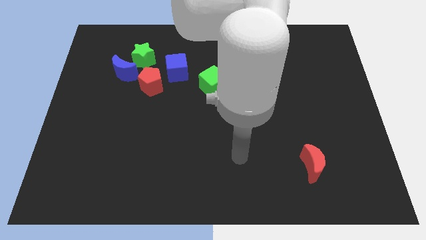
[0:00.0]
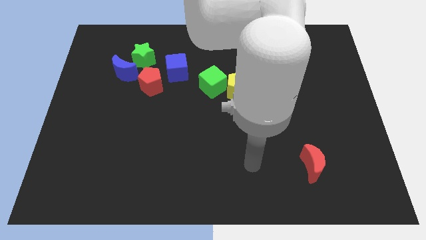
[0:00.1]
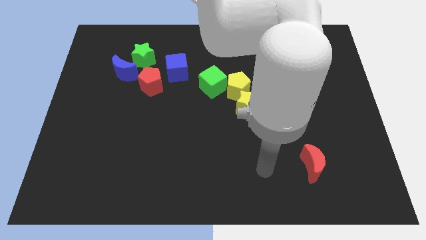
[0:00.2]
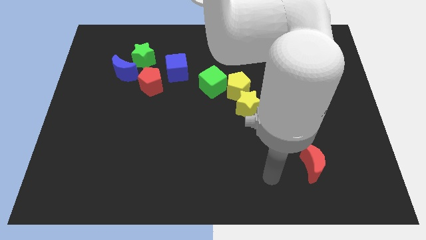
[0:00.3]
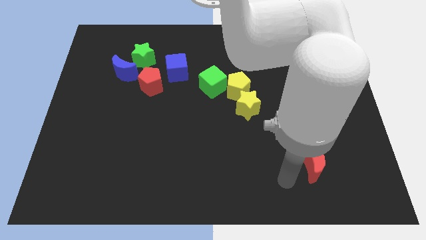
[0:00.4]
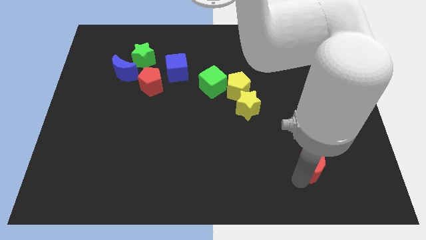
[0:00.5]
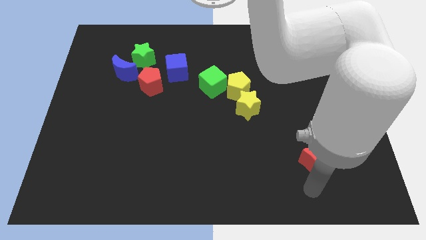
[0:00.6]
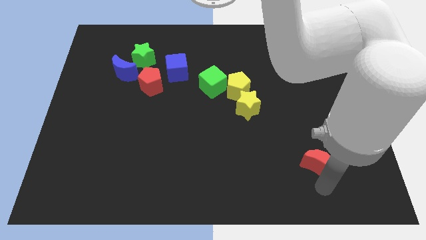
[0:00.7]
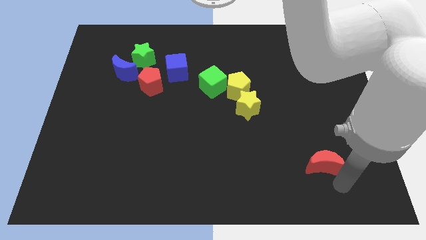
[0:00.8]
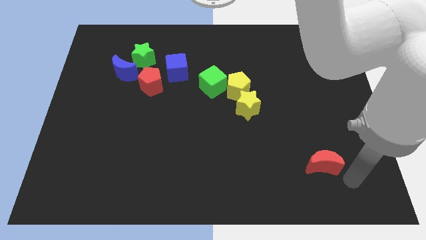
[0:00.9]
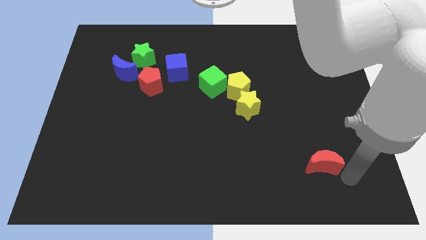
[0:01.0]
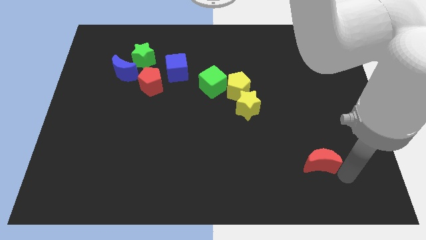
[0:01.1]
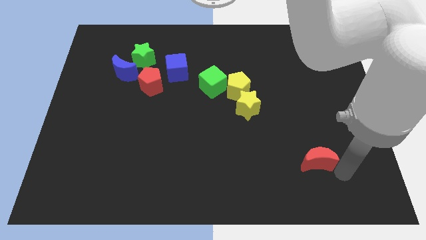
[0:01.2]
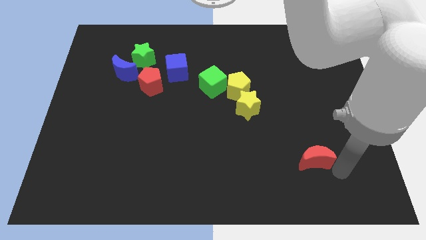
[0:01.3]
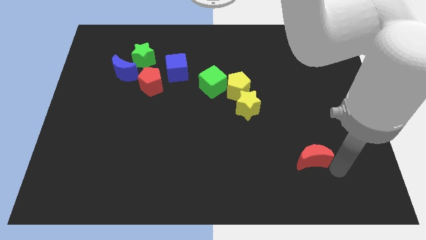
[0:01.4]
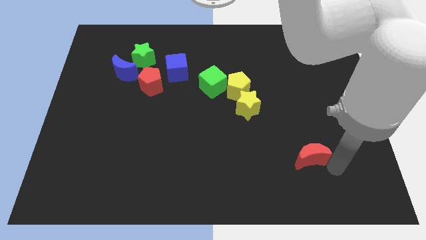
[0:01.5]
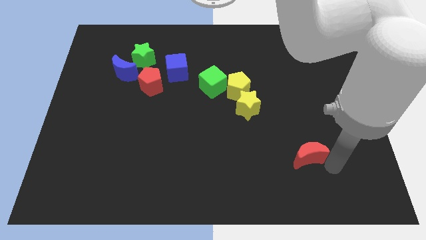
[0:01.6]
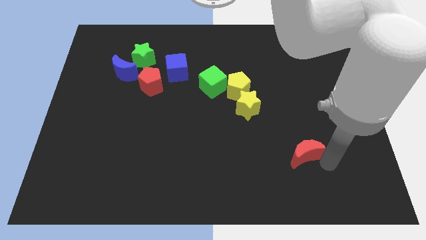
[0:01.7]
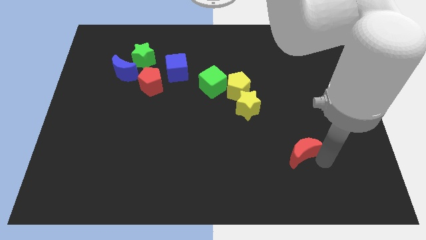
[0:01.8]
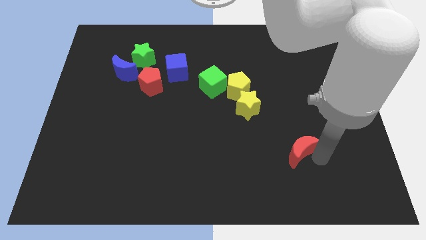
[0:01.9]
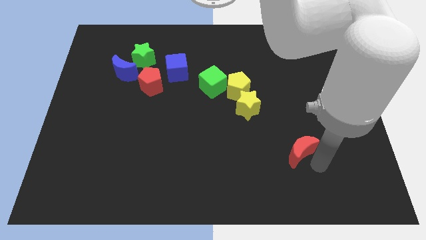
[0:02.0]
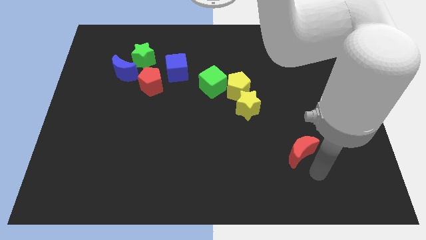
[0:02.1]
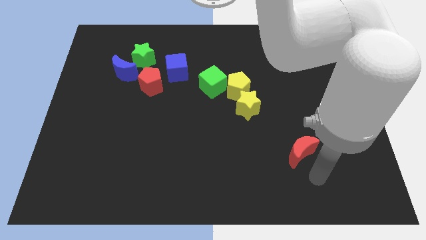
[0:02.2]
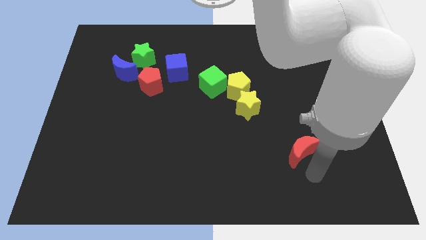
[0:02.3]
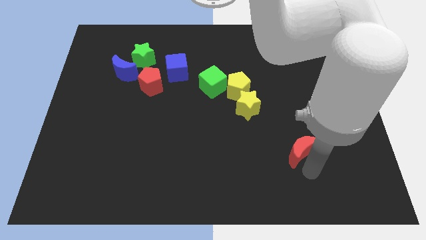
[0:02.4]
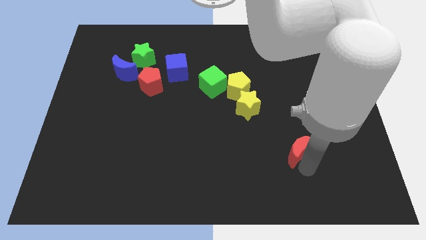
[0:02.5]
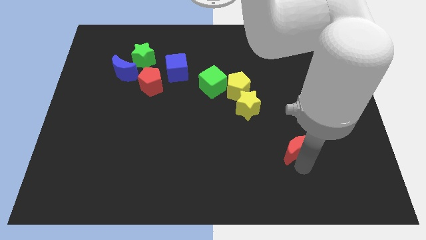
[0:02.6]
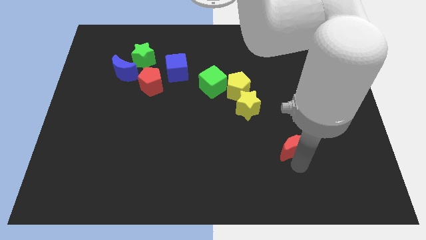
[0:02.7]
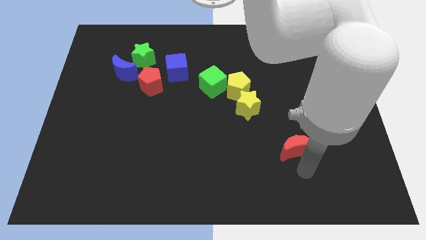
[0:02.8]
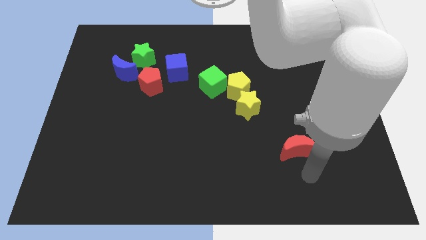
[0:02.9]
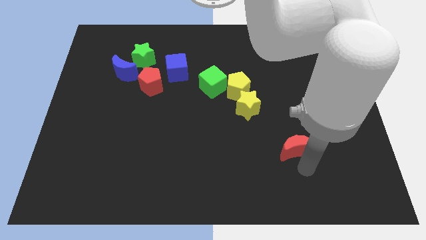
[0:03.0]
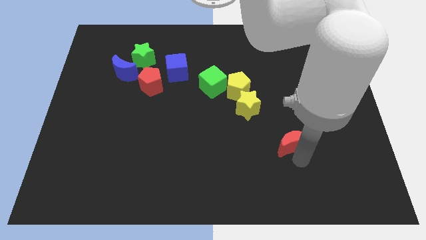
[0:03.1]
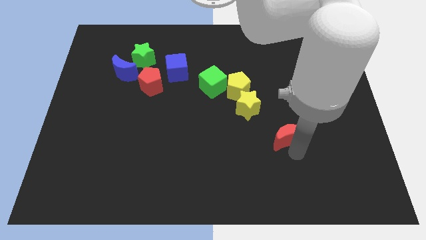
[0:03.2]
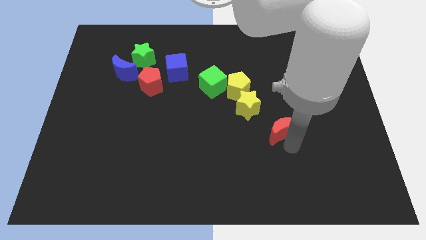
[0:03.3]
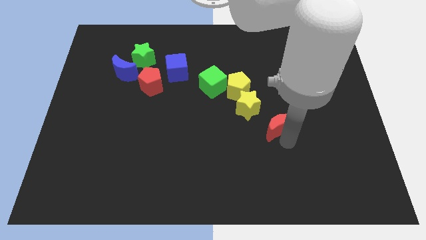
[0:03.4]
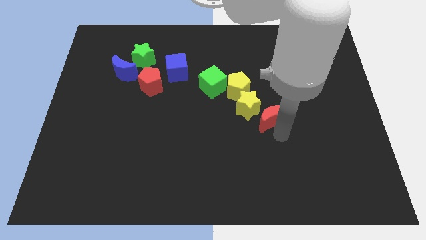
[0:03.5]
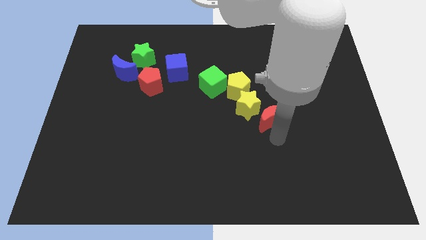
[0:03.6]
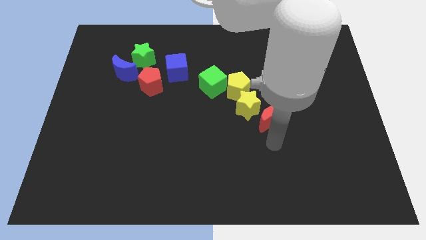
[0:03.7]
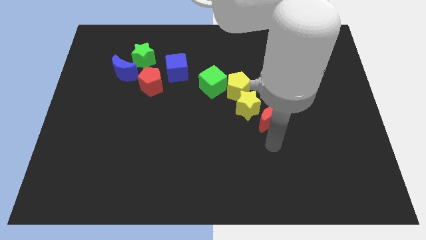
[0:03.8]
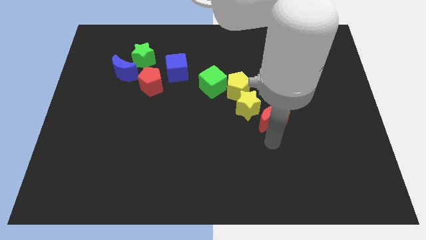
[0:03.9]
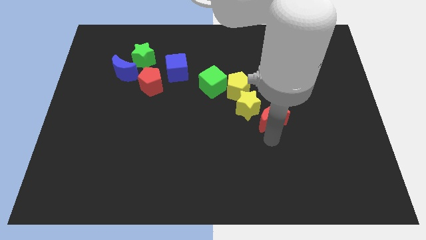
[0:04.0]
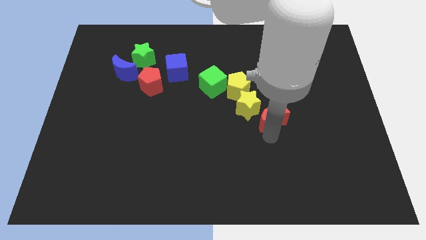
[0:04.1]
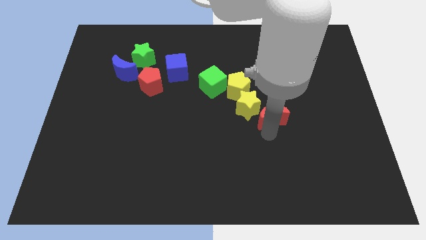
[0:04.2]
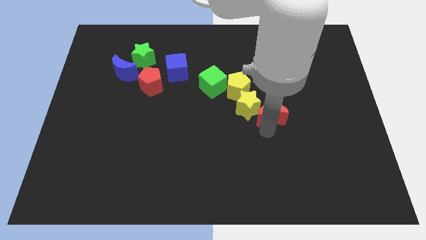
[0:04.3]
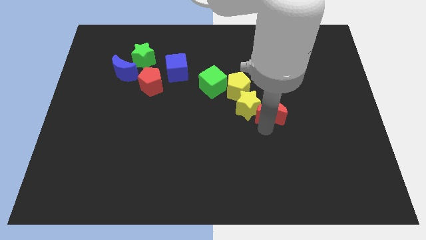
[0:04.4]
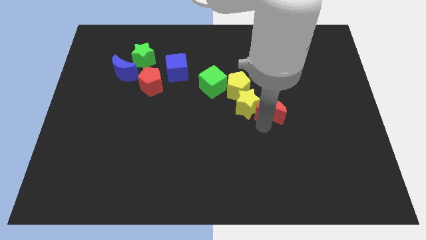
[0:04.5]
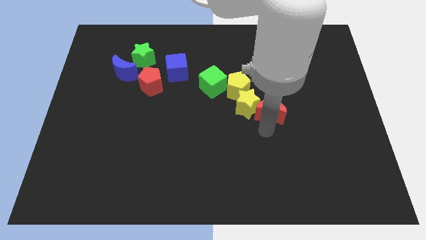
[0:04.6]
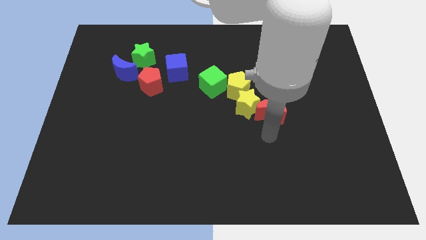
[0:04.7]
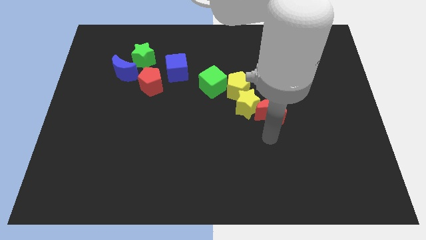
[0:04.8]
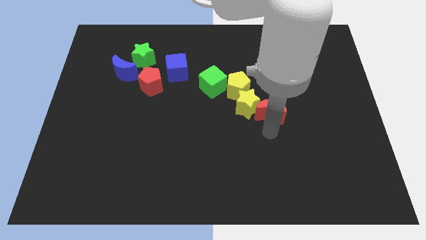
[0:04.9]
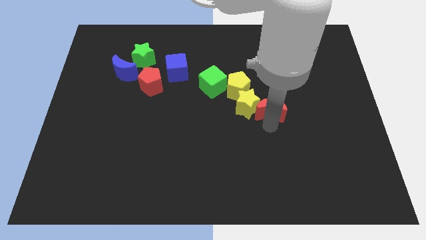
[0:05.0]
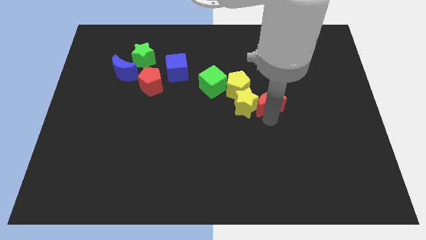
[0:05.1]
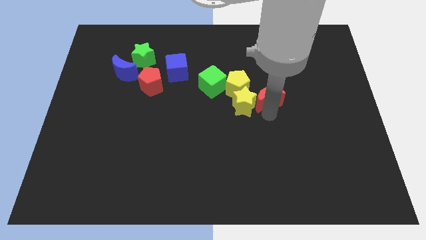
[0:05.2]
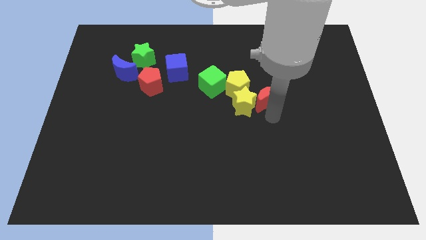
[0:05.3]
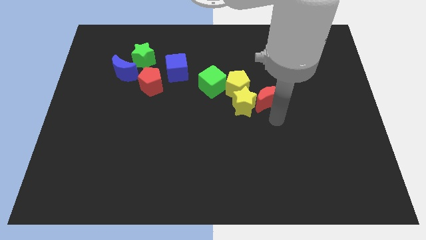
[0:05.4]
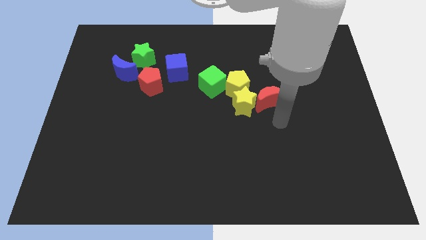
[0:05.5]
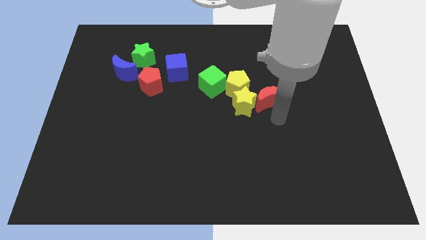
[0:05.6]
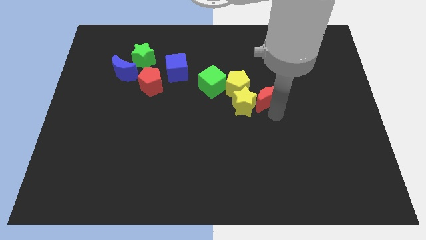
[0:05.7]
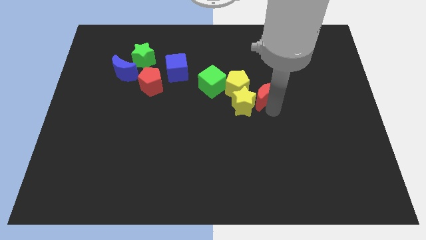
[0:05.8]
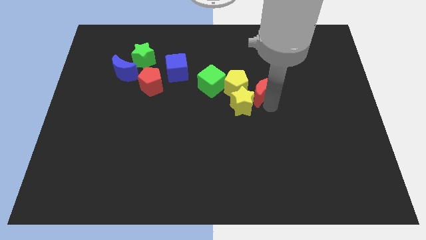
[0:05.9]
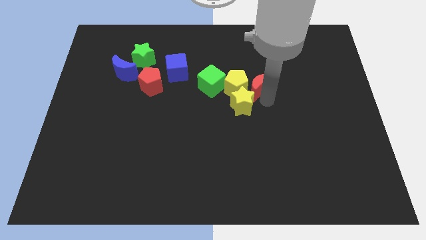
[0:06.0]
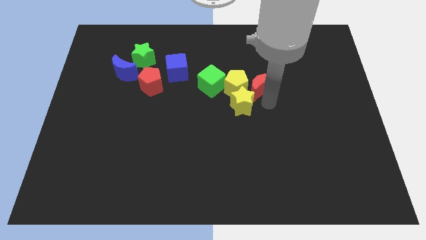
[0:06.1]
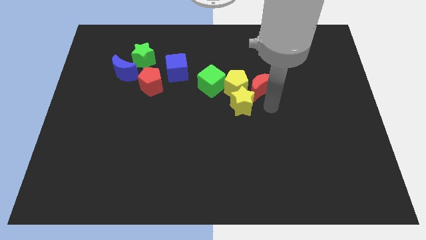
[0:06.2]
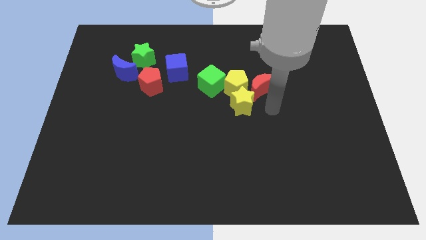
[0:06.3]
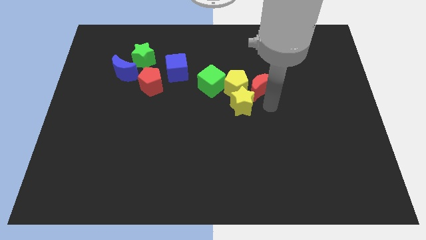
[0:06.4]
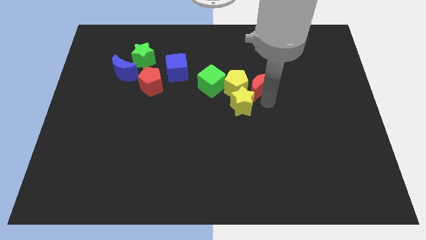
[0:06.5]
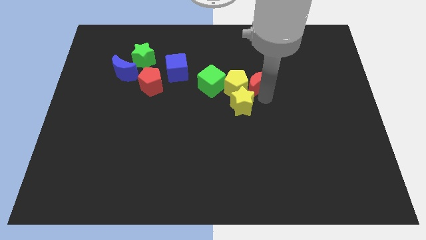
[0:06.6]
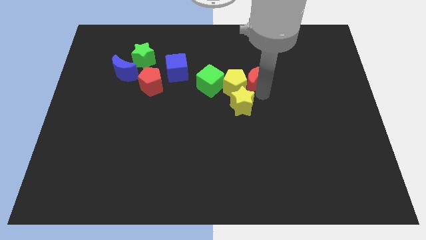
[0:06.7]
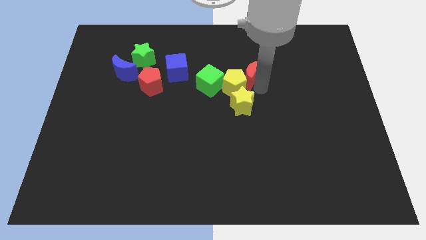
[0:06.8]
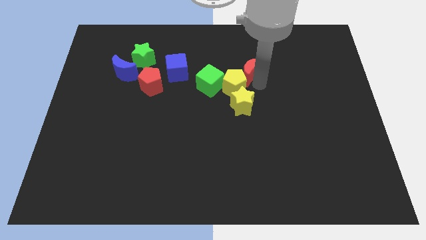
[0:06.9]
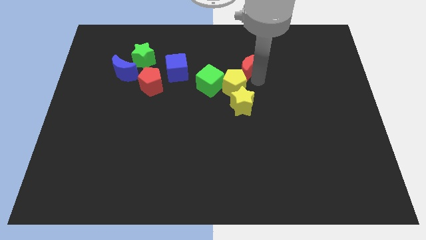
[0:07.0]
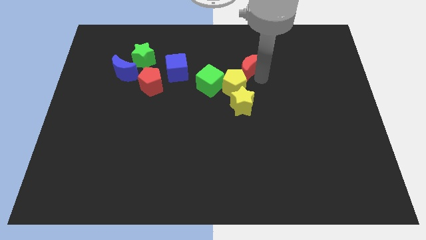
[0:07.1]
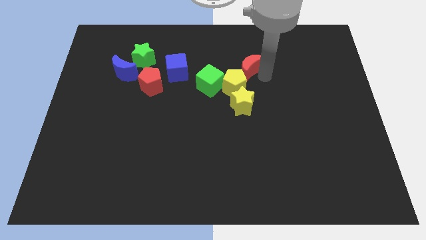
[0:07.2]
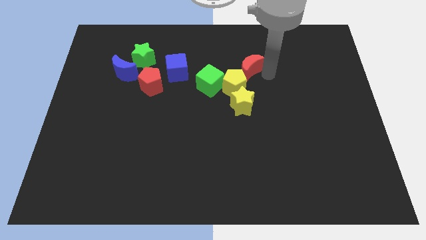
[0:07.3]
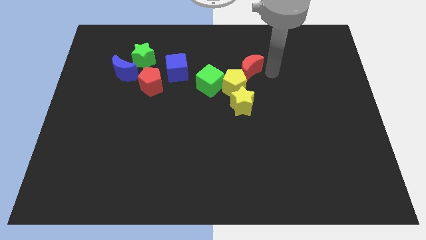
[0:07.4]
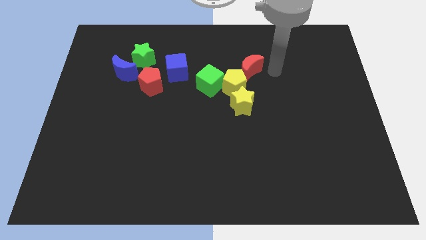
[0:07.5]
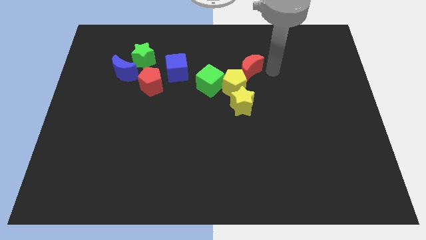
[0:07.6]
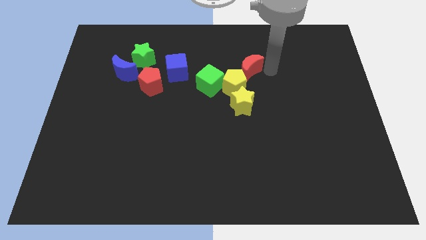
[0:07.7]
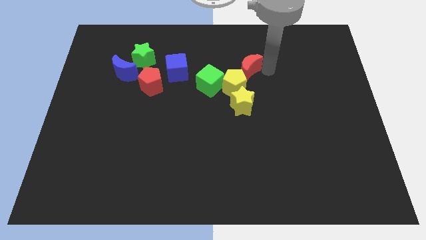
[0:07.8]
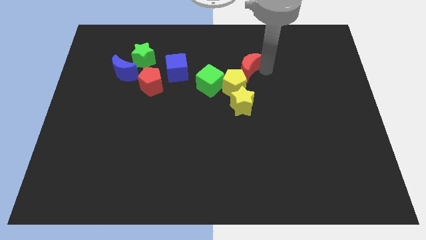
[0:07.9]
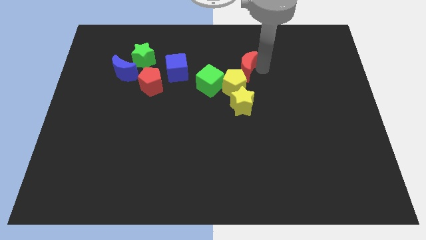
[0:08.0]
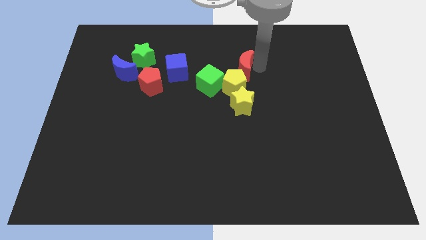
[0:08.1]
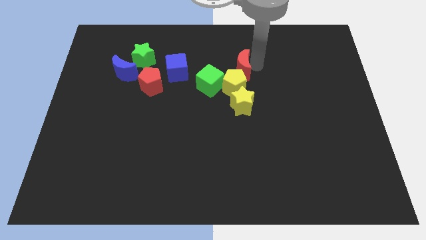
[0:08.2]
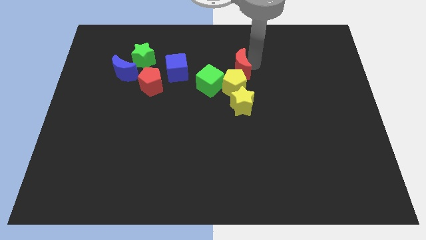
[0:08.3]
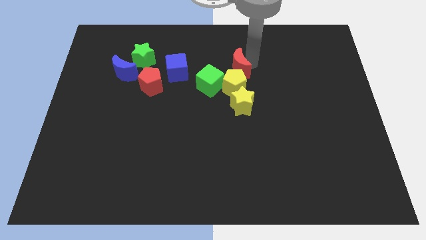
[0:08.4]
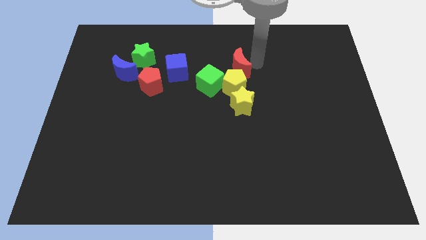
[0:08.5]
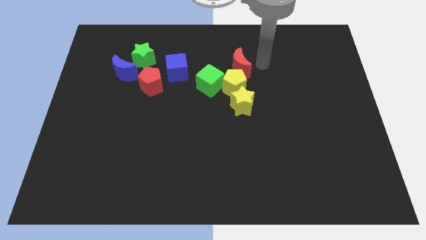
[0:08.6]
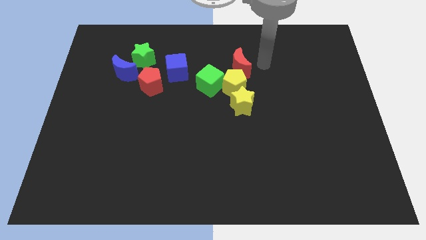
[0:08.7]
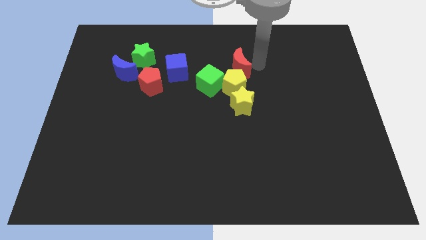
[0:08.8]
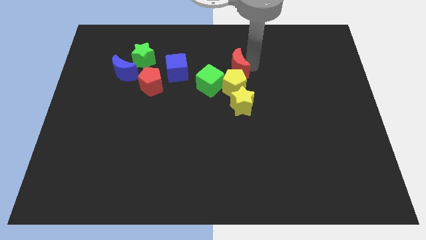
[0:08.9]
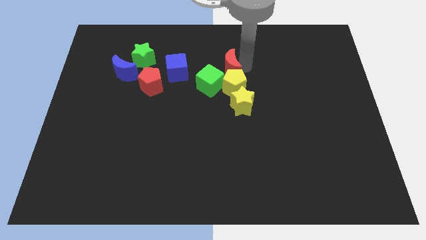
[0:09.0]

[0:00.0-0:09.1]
push the red moon to the top left side of the yellow pentagon
